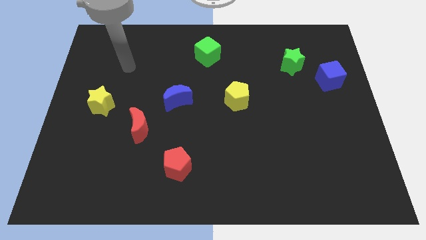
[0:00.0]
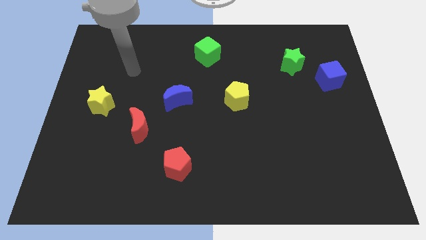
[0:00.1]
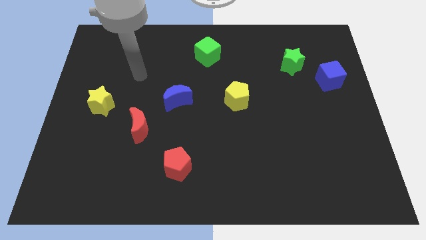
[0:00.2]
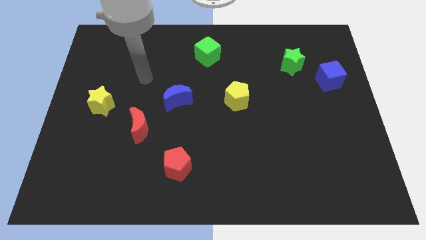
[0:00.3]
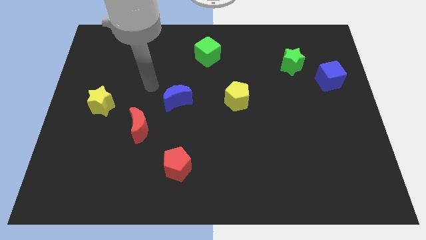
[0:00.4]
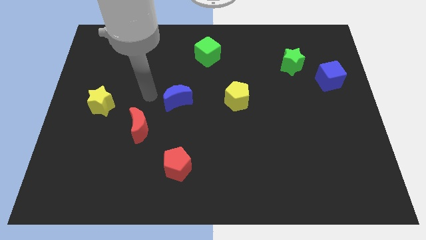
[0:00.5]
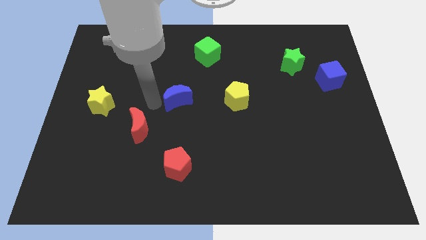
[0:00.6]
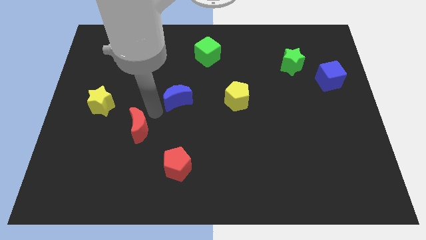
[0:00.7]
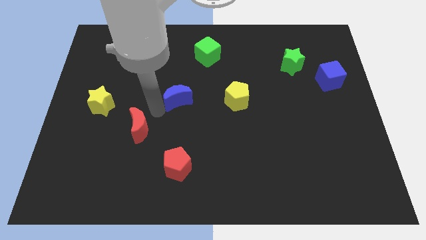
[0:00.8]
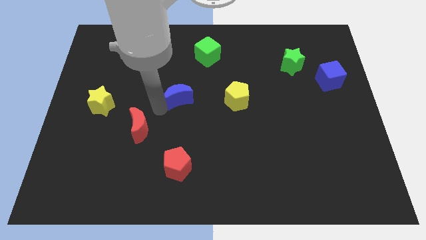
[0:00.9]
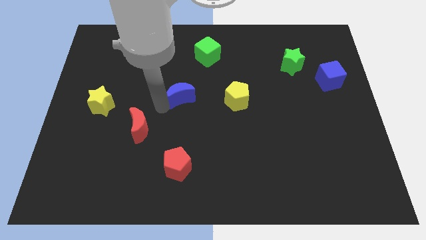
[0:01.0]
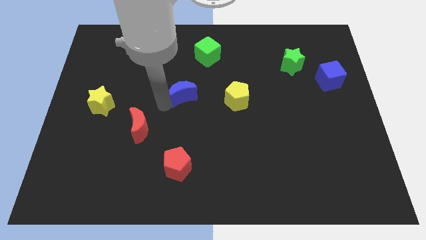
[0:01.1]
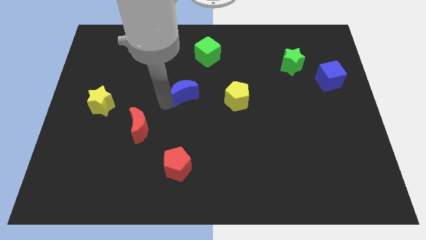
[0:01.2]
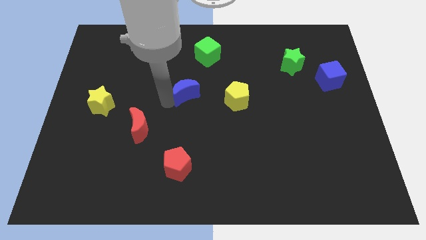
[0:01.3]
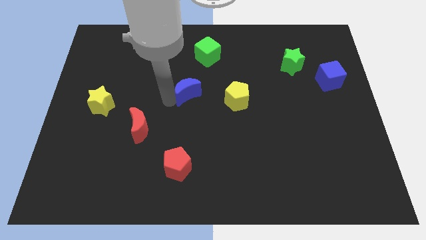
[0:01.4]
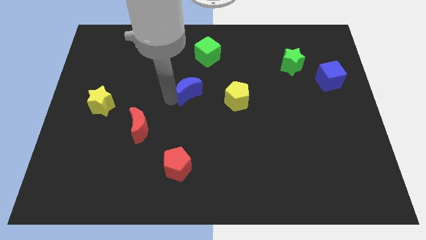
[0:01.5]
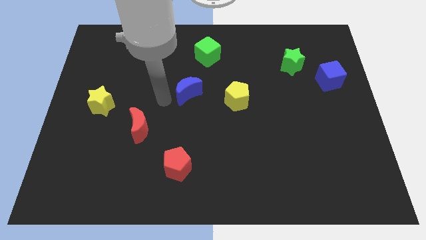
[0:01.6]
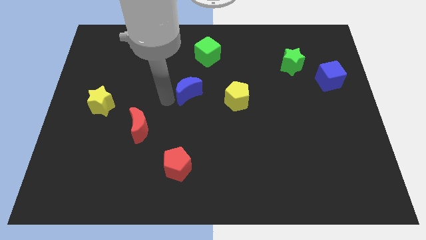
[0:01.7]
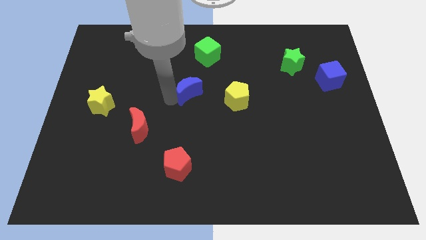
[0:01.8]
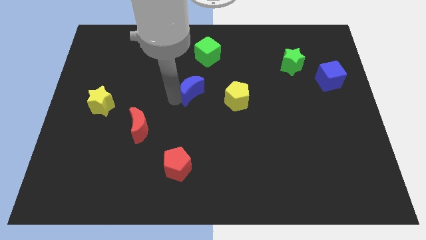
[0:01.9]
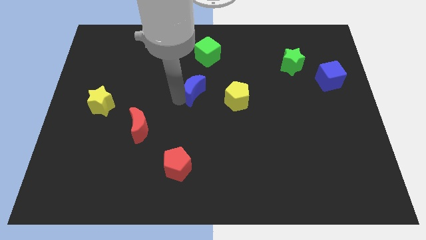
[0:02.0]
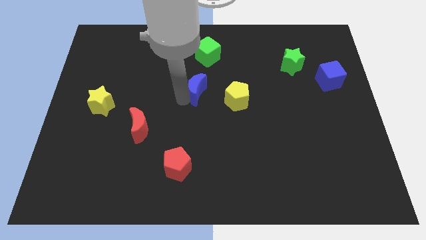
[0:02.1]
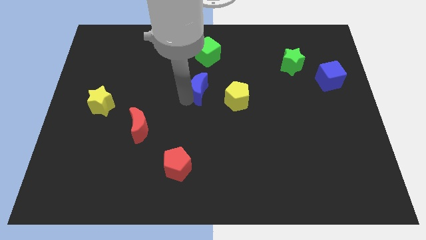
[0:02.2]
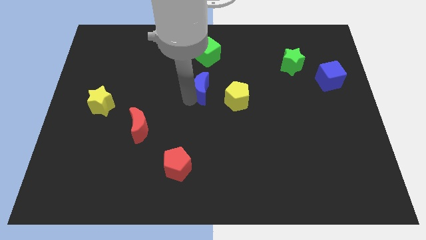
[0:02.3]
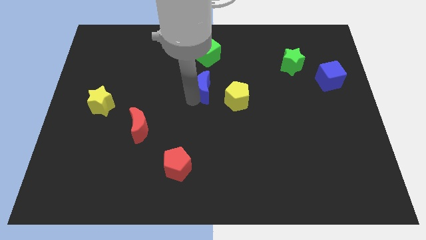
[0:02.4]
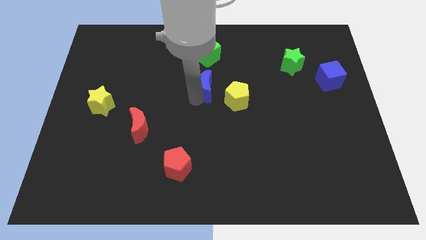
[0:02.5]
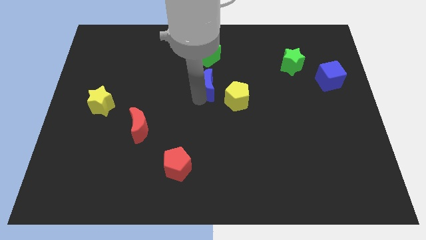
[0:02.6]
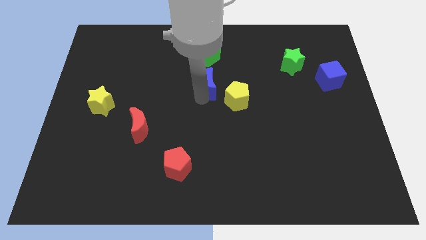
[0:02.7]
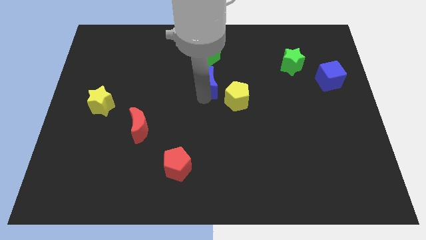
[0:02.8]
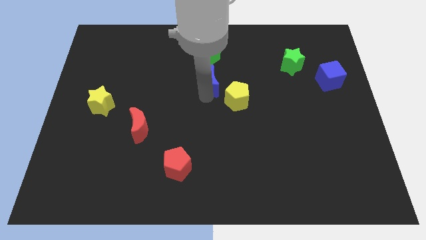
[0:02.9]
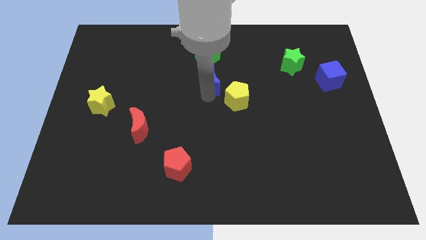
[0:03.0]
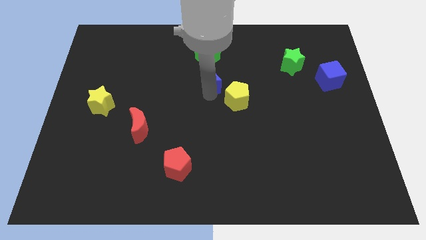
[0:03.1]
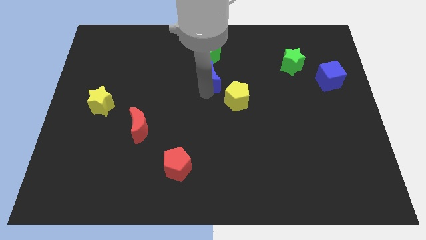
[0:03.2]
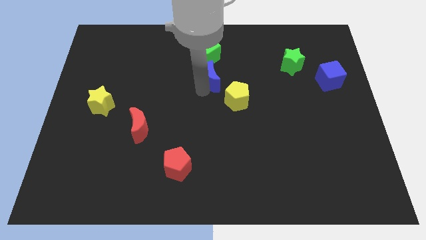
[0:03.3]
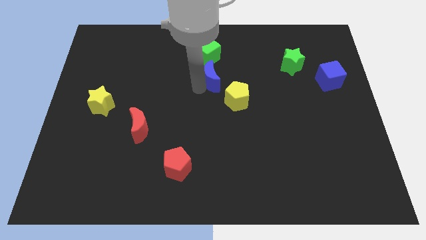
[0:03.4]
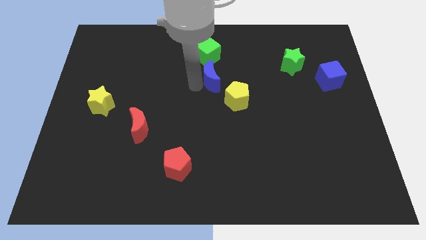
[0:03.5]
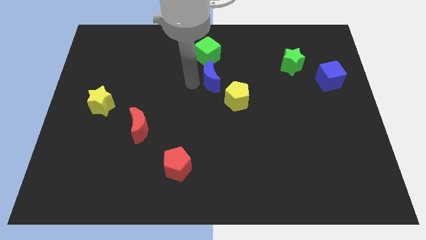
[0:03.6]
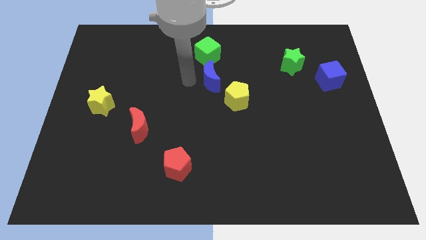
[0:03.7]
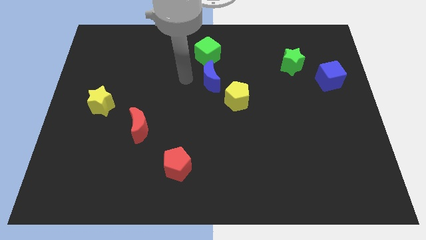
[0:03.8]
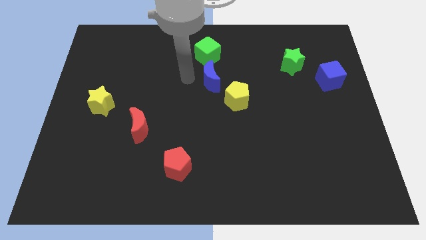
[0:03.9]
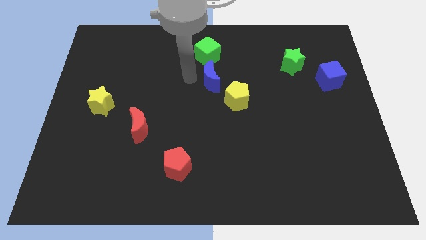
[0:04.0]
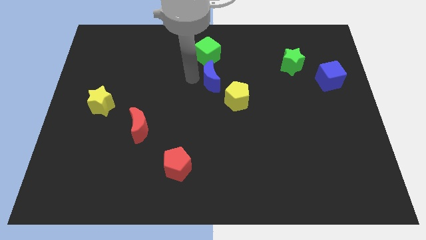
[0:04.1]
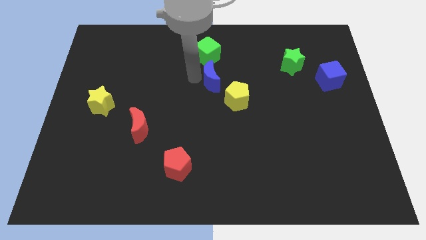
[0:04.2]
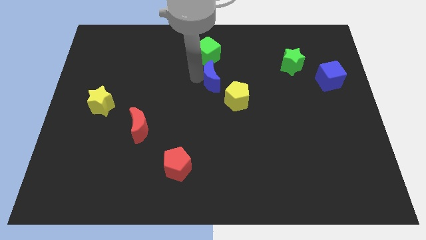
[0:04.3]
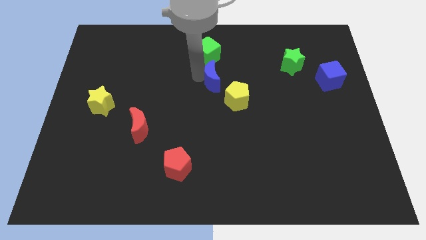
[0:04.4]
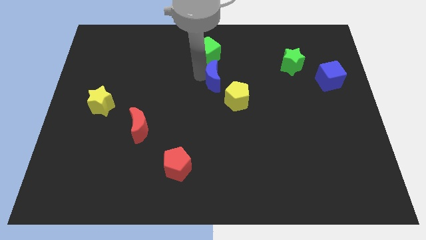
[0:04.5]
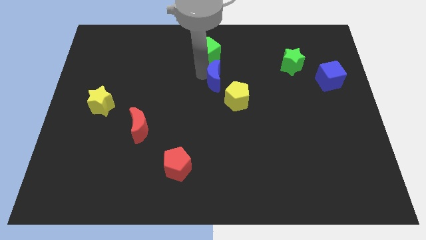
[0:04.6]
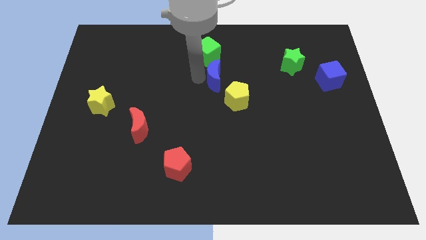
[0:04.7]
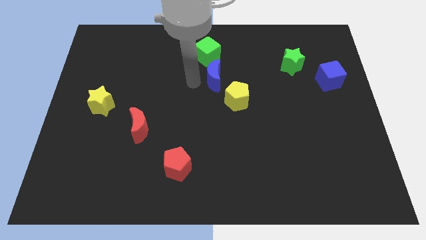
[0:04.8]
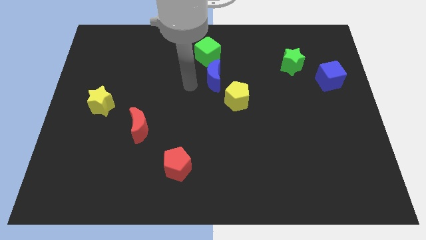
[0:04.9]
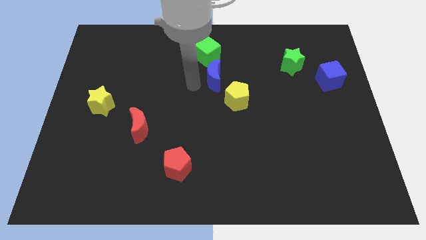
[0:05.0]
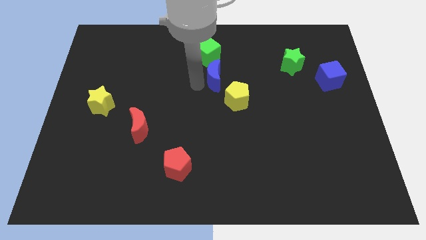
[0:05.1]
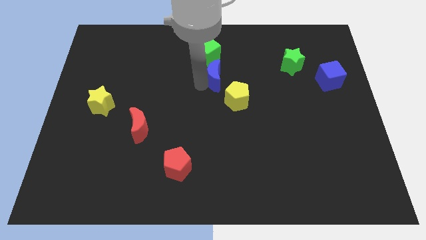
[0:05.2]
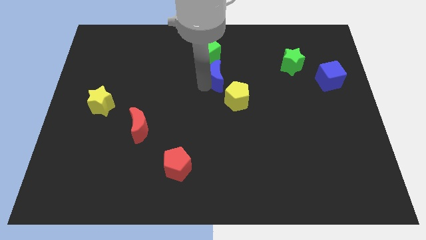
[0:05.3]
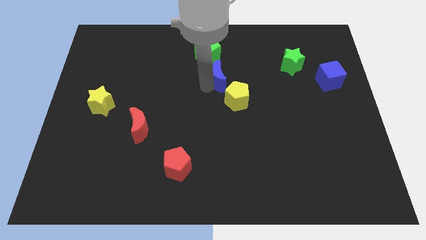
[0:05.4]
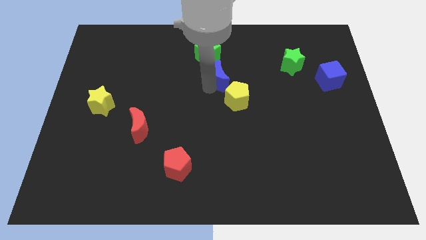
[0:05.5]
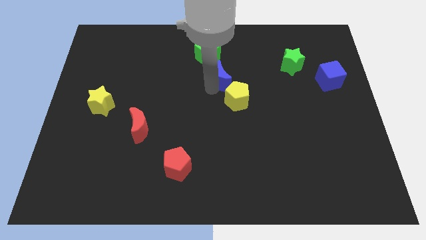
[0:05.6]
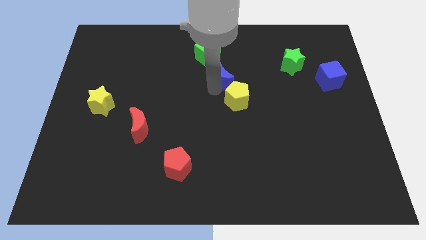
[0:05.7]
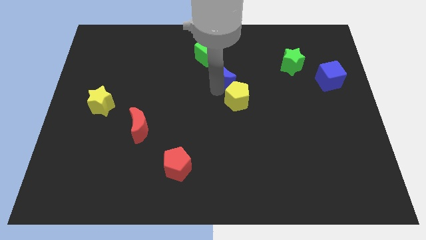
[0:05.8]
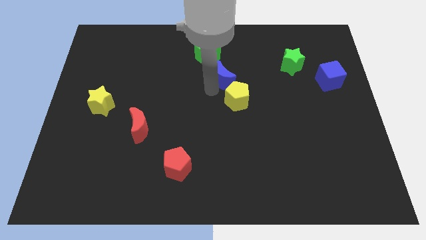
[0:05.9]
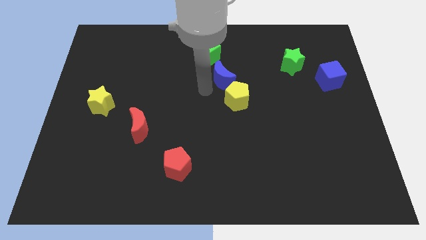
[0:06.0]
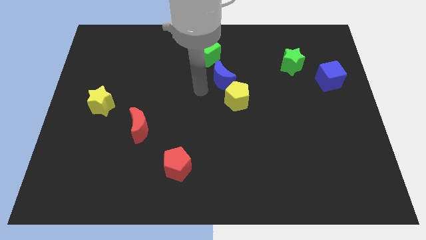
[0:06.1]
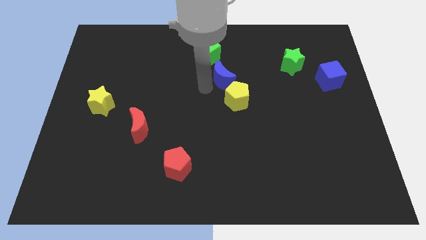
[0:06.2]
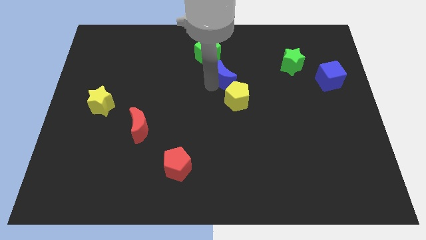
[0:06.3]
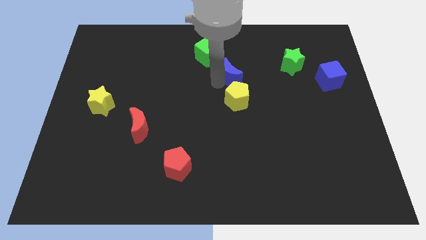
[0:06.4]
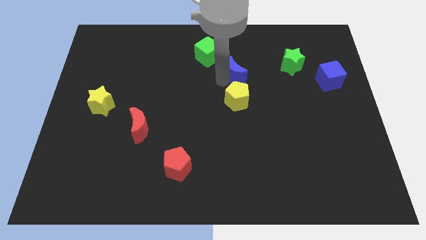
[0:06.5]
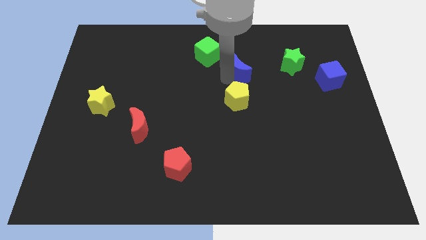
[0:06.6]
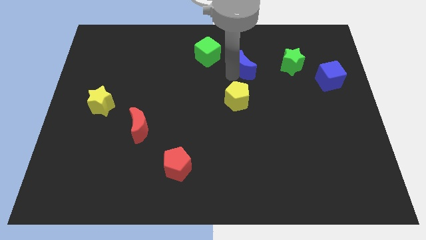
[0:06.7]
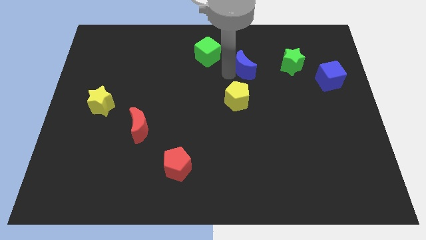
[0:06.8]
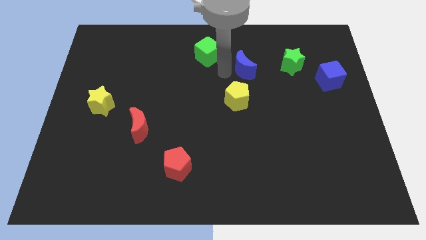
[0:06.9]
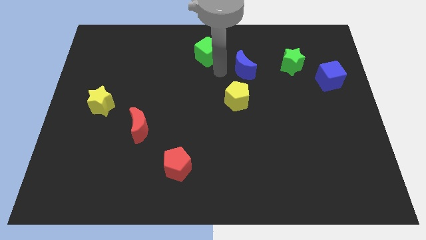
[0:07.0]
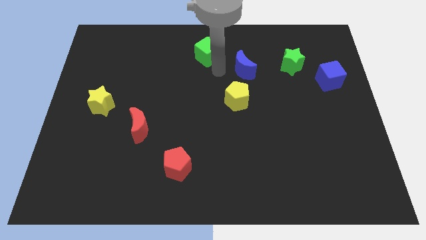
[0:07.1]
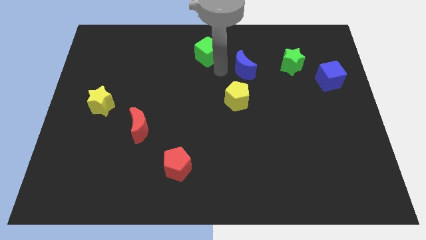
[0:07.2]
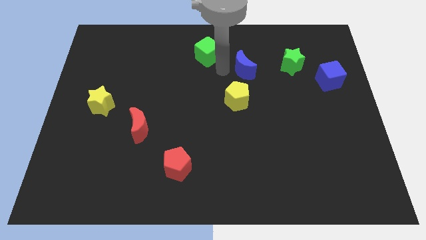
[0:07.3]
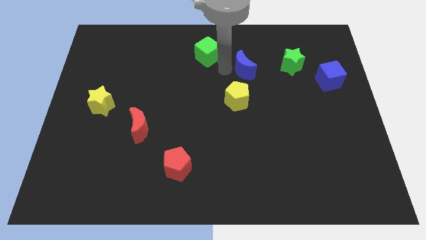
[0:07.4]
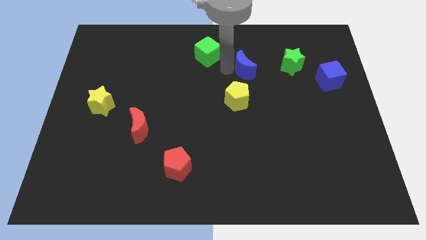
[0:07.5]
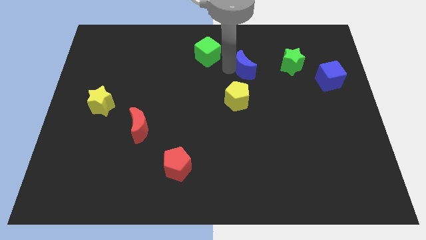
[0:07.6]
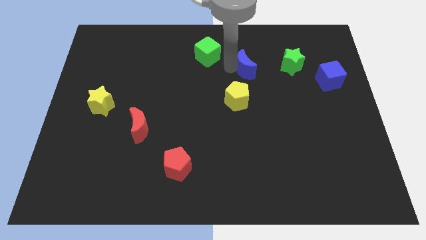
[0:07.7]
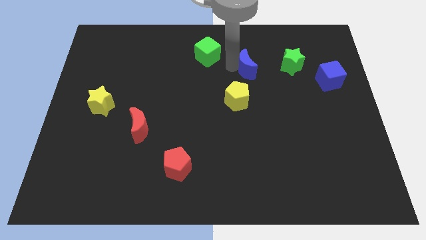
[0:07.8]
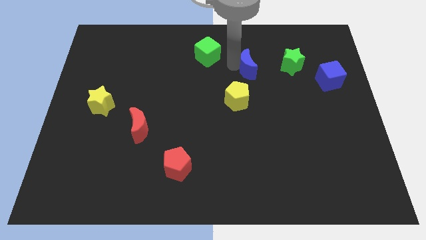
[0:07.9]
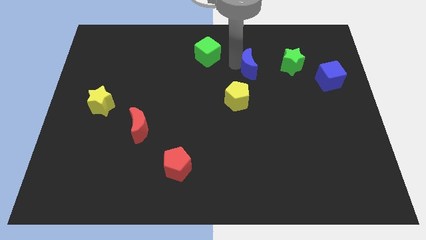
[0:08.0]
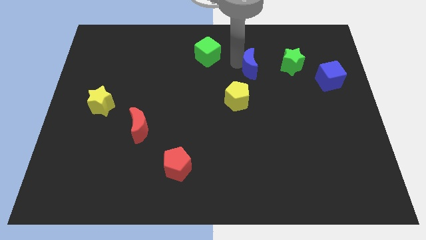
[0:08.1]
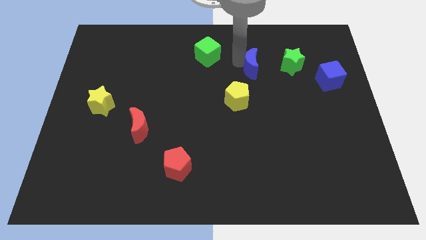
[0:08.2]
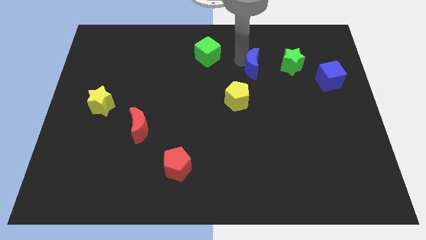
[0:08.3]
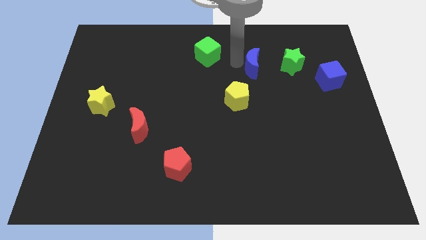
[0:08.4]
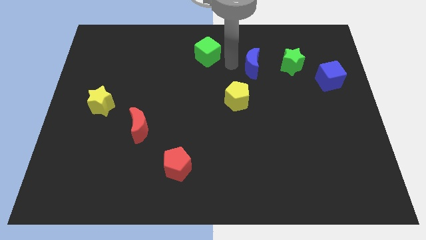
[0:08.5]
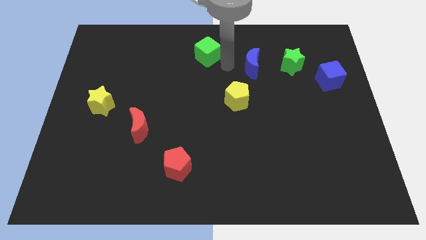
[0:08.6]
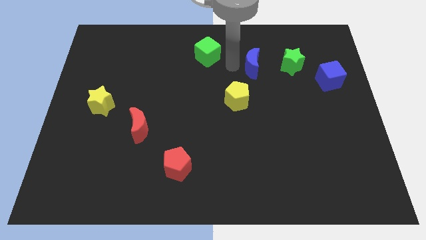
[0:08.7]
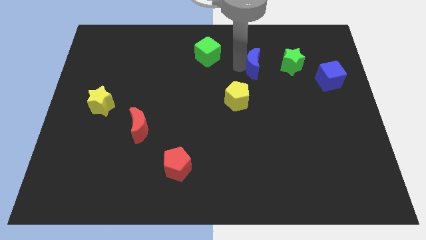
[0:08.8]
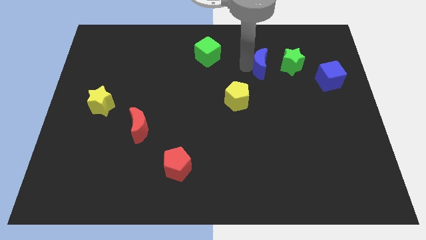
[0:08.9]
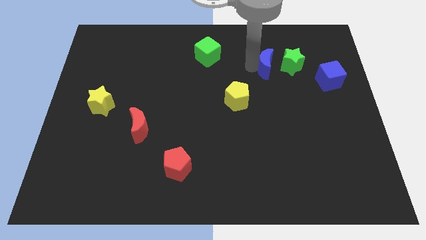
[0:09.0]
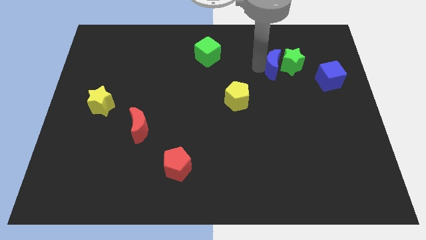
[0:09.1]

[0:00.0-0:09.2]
put the blue moon next to the green star
